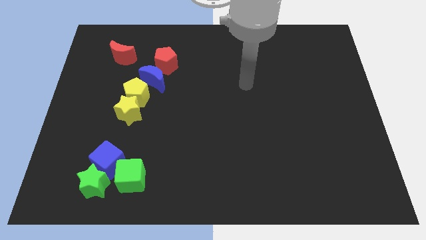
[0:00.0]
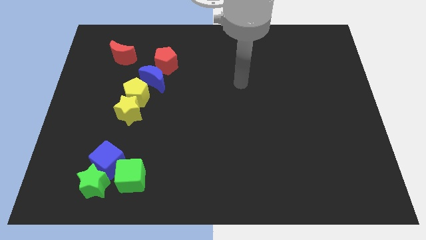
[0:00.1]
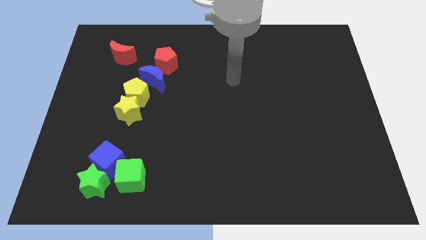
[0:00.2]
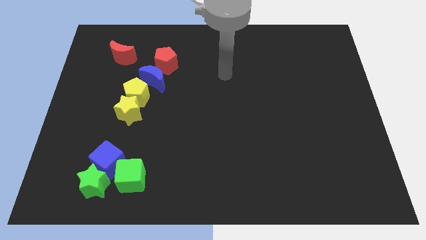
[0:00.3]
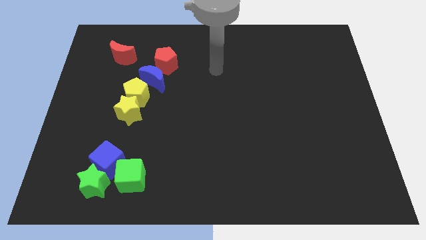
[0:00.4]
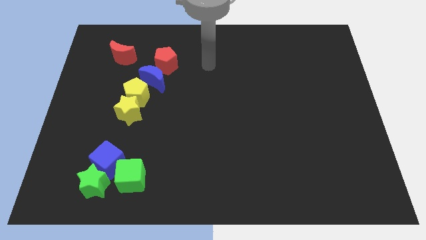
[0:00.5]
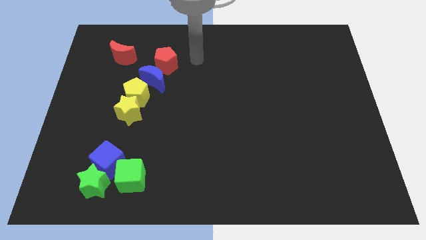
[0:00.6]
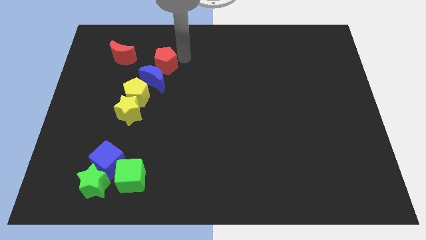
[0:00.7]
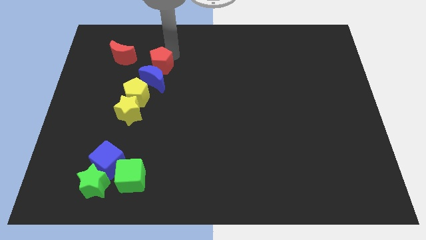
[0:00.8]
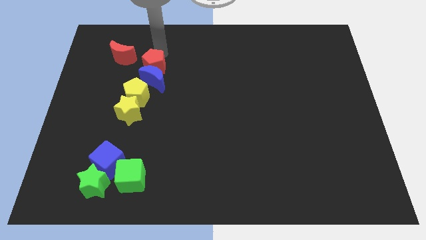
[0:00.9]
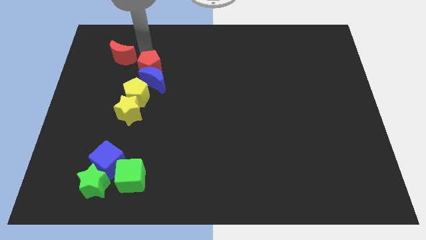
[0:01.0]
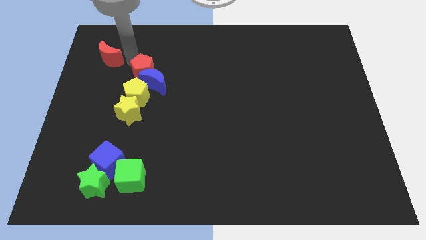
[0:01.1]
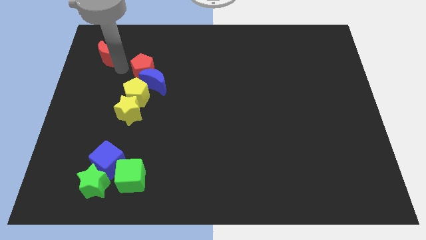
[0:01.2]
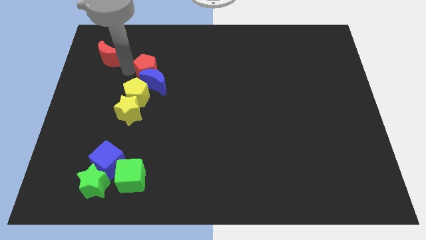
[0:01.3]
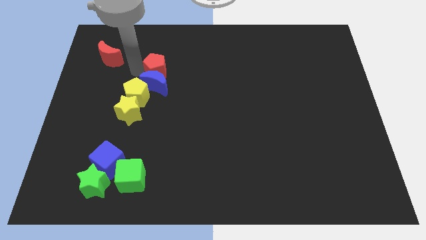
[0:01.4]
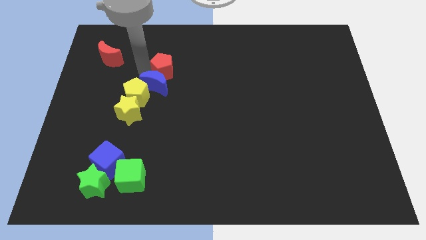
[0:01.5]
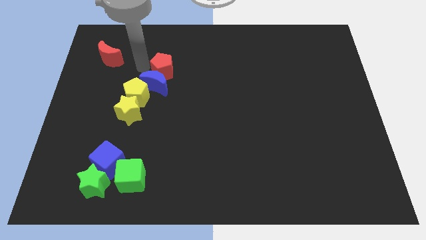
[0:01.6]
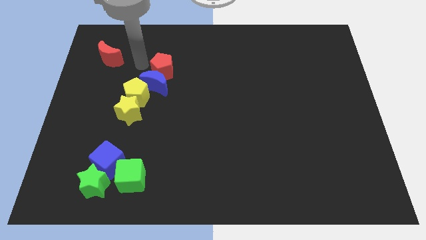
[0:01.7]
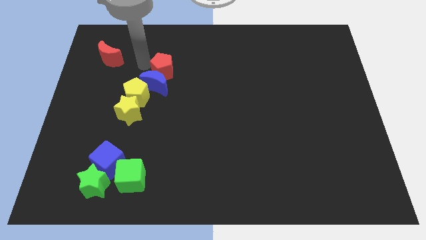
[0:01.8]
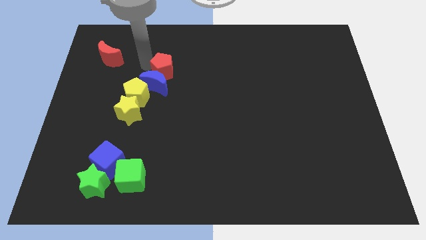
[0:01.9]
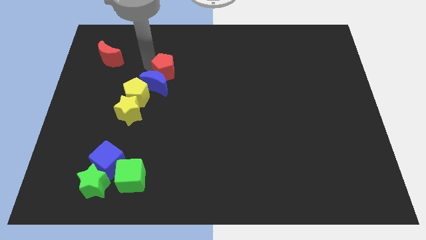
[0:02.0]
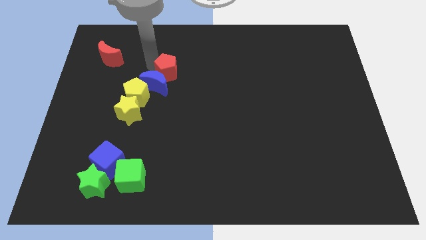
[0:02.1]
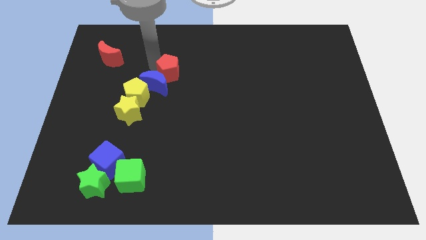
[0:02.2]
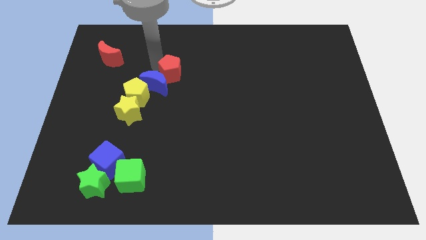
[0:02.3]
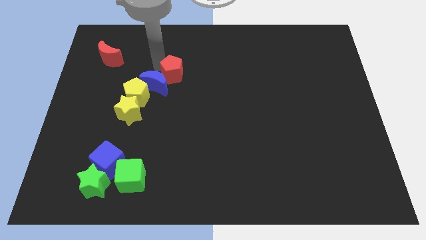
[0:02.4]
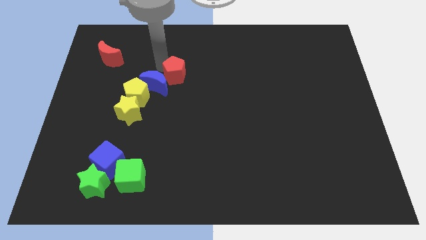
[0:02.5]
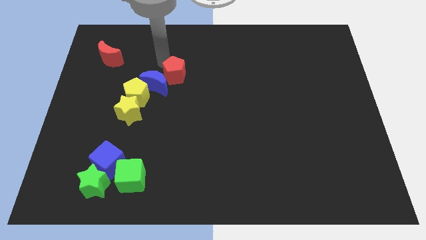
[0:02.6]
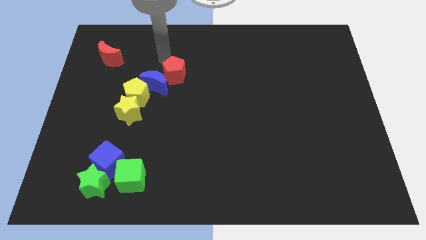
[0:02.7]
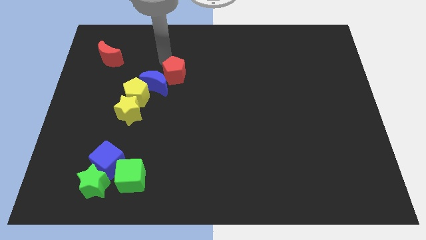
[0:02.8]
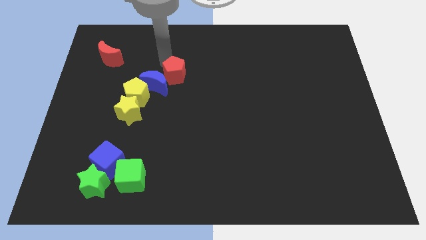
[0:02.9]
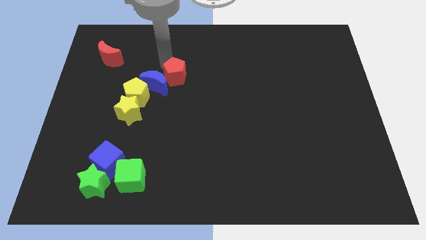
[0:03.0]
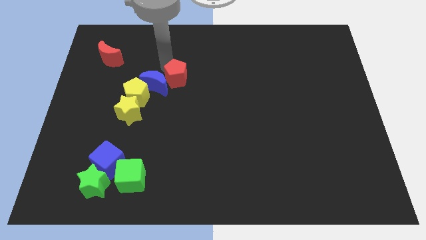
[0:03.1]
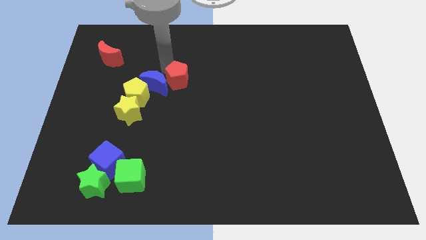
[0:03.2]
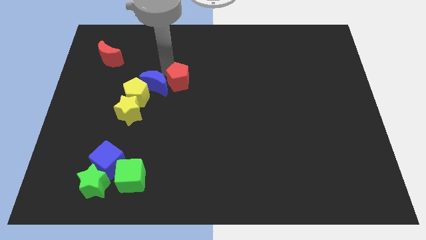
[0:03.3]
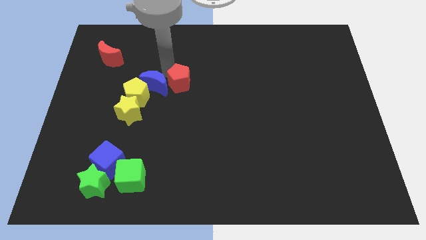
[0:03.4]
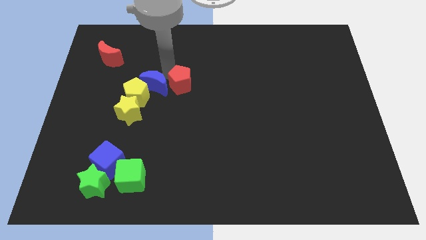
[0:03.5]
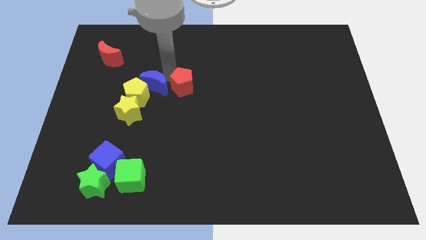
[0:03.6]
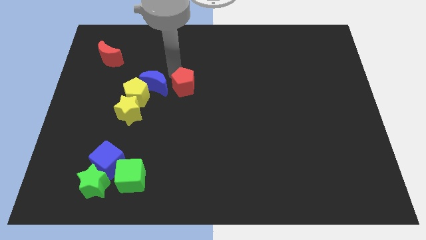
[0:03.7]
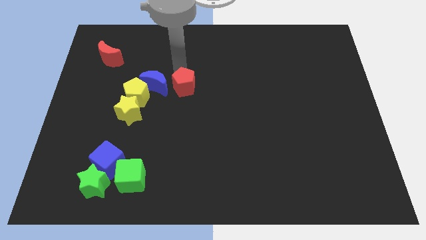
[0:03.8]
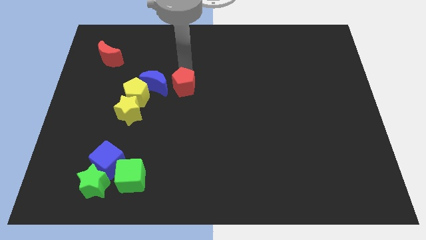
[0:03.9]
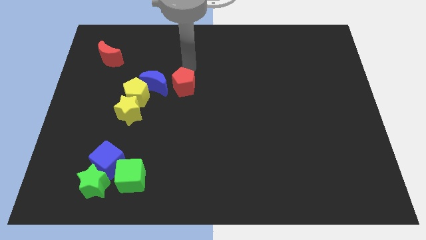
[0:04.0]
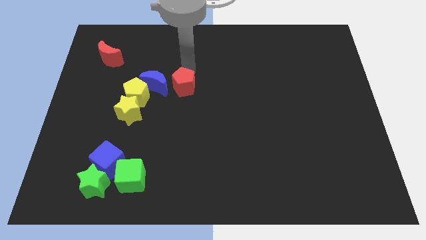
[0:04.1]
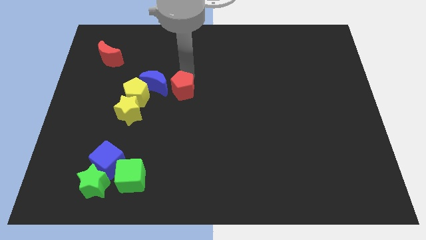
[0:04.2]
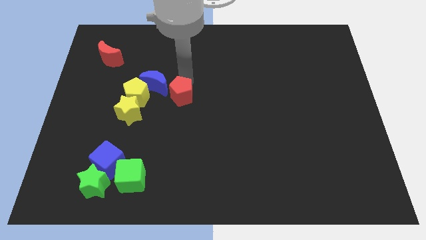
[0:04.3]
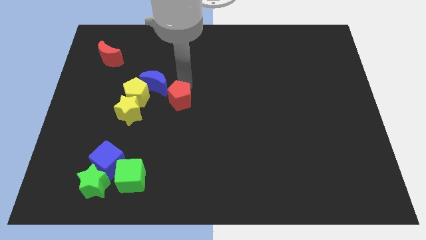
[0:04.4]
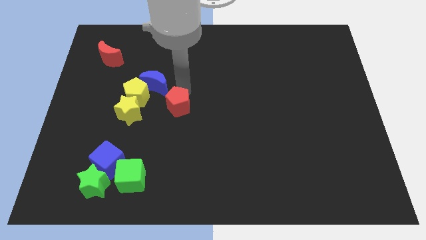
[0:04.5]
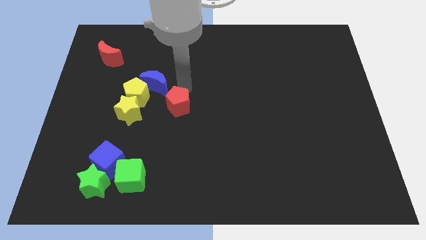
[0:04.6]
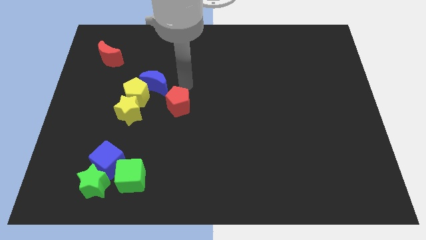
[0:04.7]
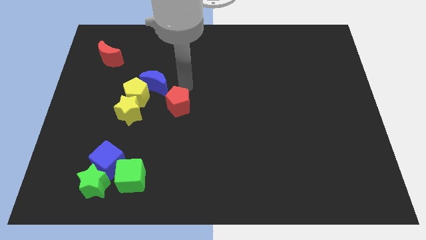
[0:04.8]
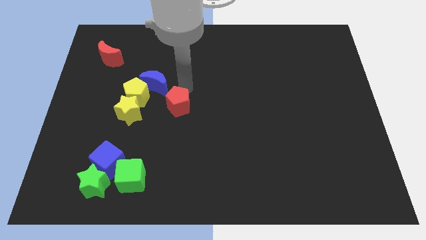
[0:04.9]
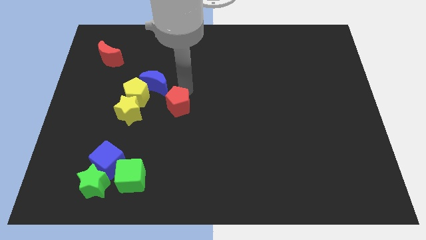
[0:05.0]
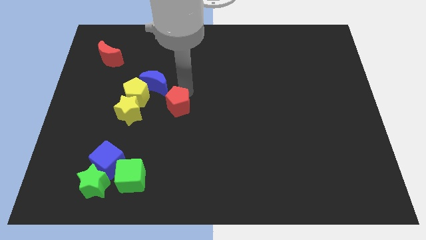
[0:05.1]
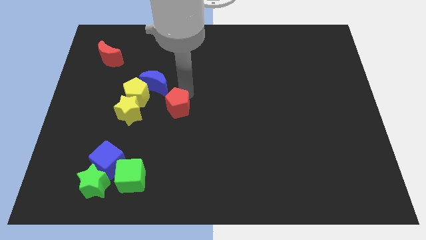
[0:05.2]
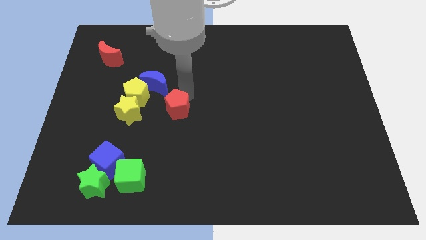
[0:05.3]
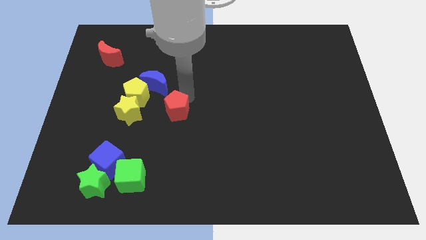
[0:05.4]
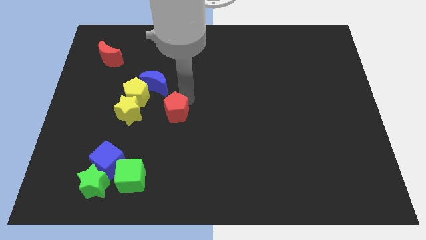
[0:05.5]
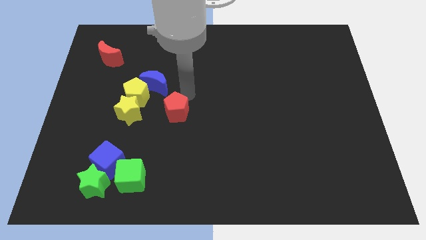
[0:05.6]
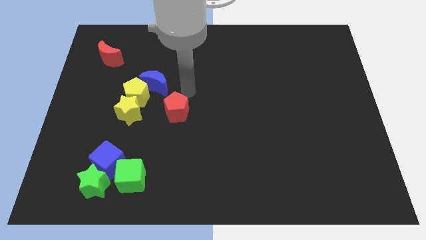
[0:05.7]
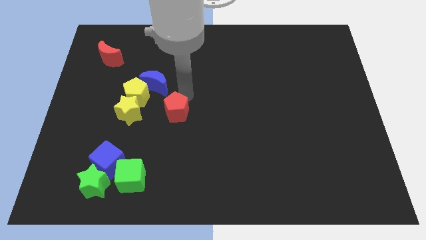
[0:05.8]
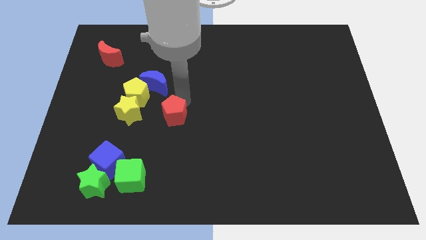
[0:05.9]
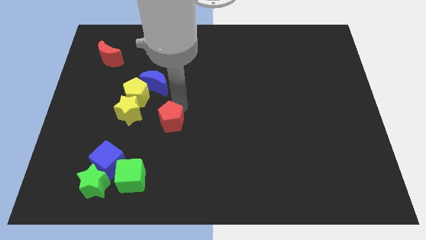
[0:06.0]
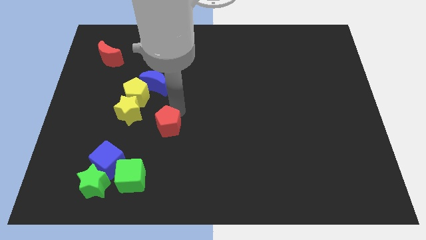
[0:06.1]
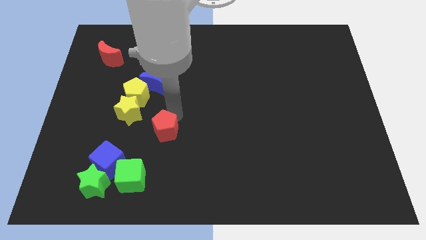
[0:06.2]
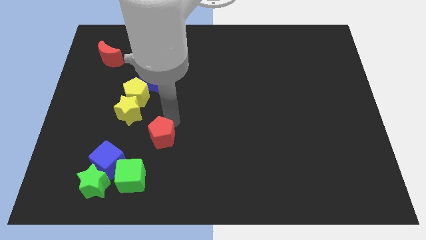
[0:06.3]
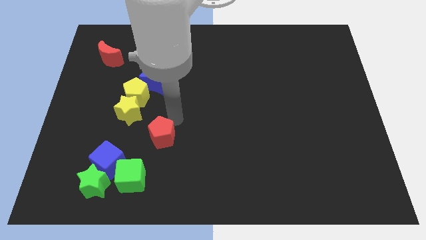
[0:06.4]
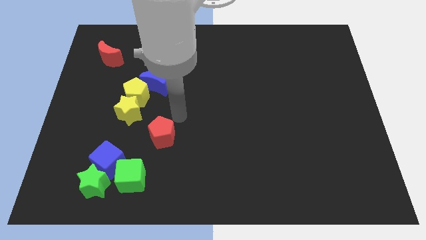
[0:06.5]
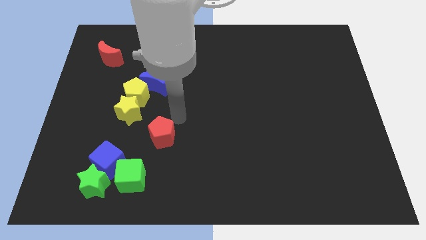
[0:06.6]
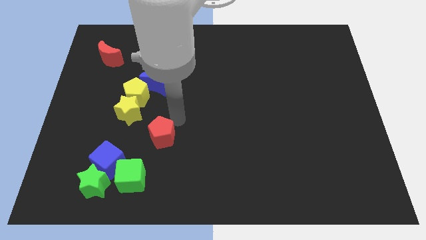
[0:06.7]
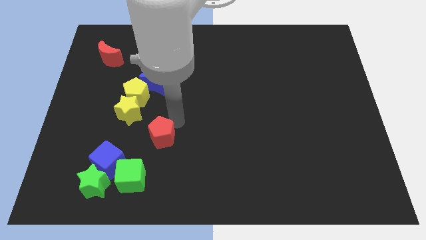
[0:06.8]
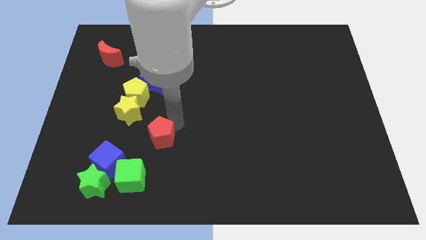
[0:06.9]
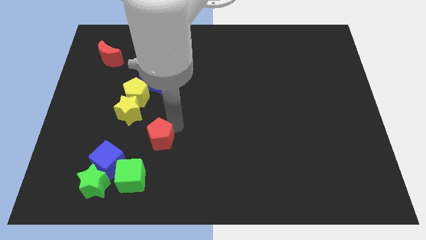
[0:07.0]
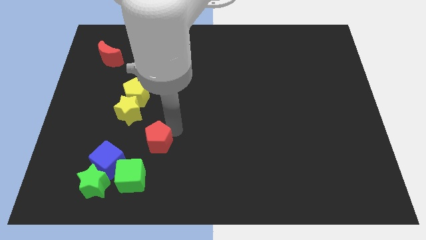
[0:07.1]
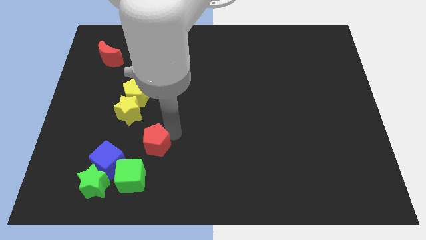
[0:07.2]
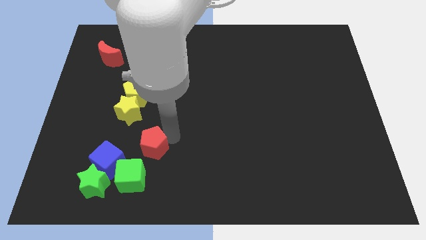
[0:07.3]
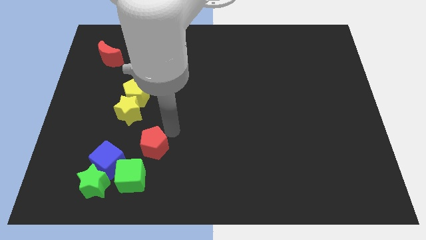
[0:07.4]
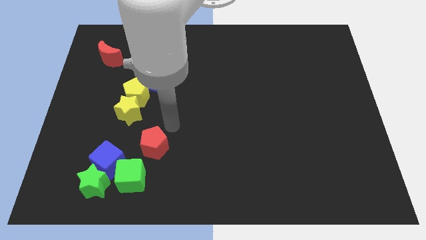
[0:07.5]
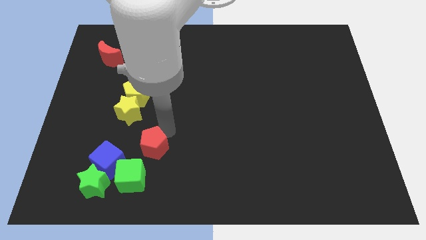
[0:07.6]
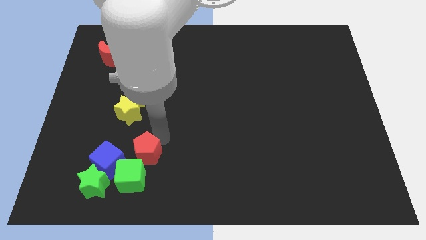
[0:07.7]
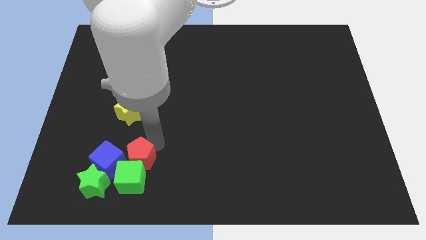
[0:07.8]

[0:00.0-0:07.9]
put the red pentagon next to the green cube

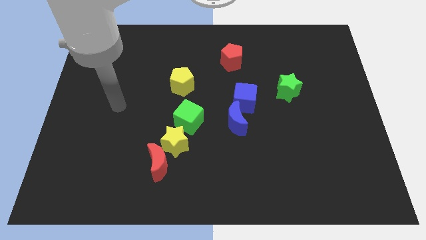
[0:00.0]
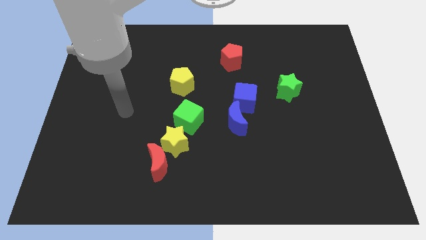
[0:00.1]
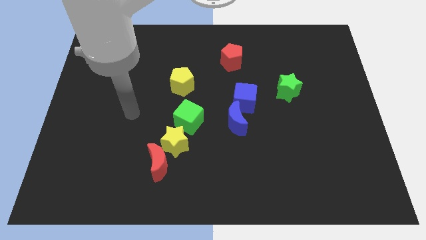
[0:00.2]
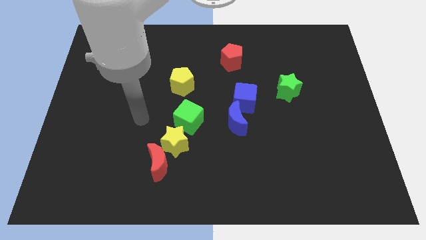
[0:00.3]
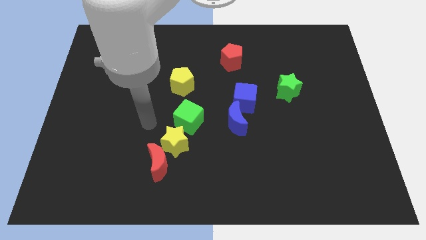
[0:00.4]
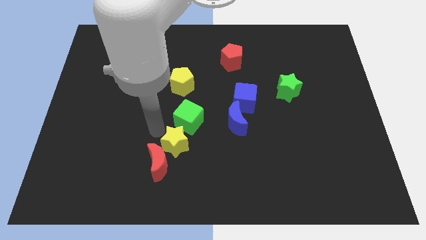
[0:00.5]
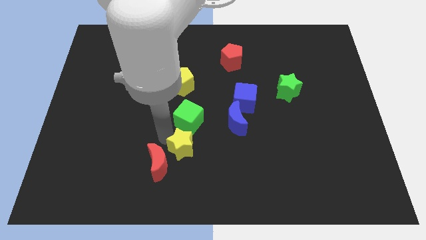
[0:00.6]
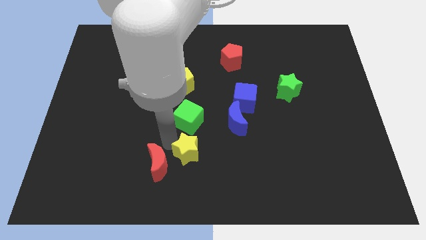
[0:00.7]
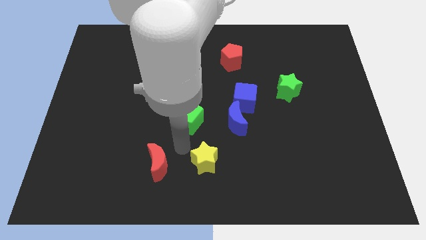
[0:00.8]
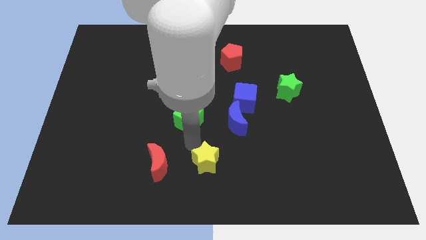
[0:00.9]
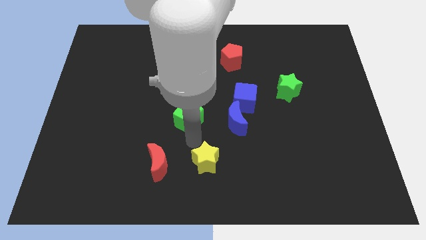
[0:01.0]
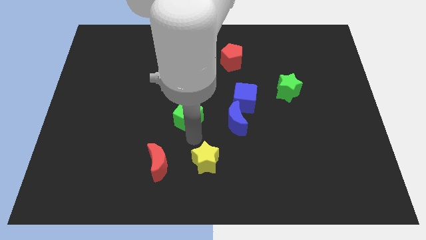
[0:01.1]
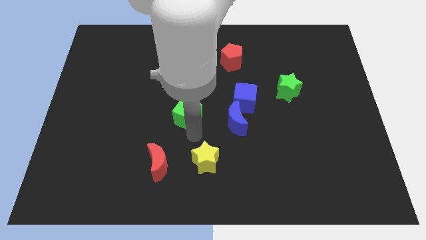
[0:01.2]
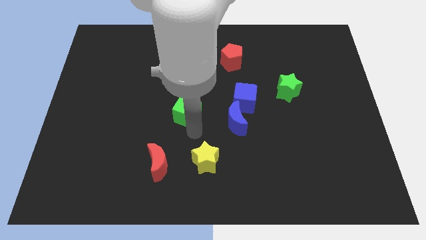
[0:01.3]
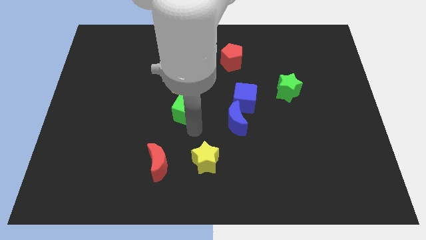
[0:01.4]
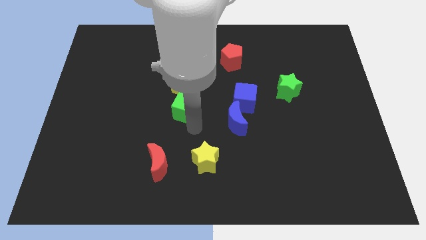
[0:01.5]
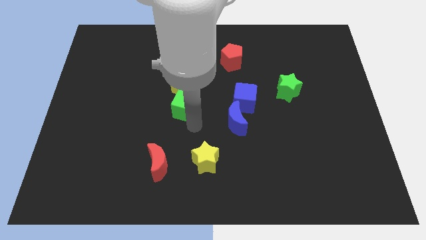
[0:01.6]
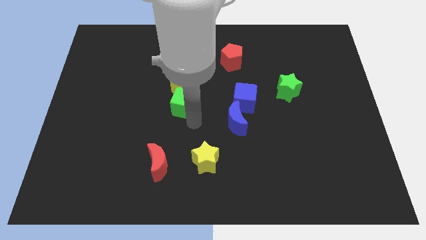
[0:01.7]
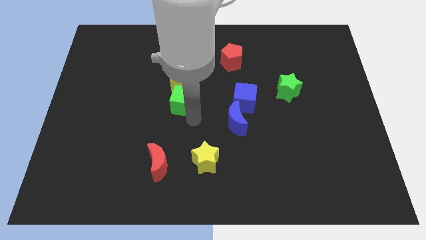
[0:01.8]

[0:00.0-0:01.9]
push the green cube close to the yellow pentagon
